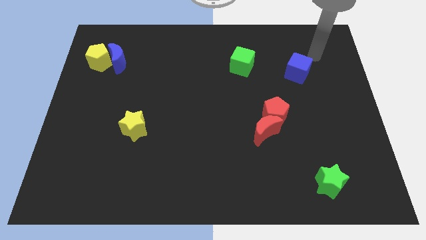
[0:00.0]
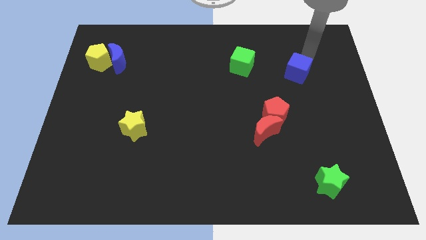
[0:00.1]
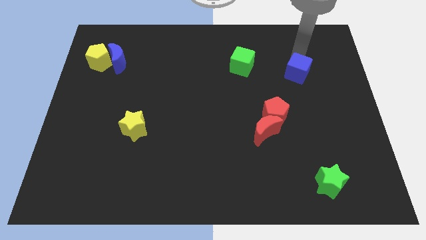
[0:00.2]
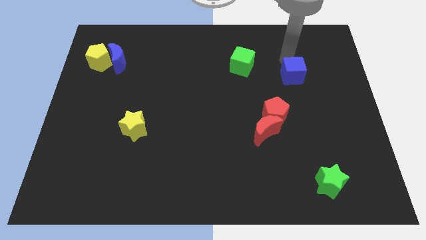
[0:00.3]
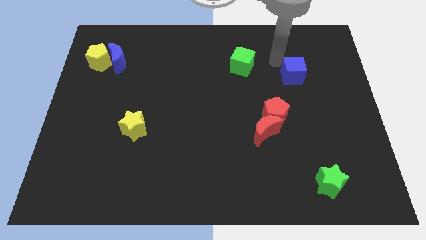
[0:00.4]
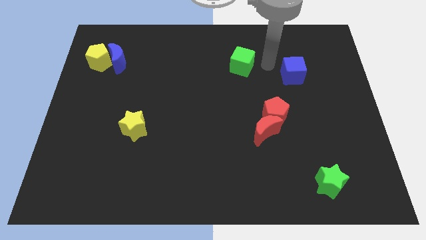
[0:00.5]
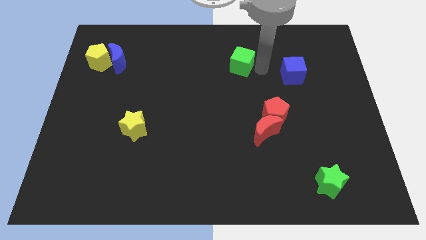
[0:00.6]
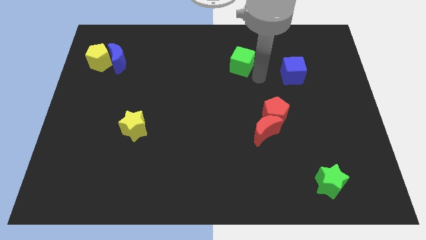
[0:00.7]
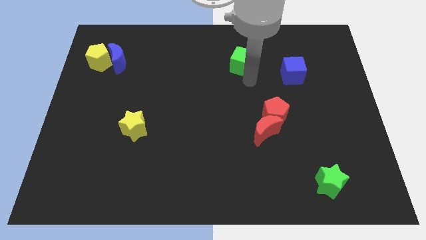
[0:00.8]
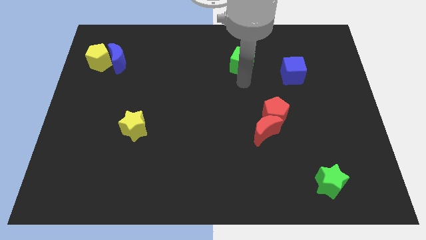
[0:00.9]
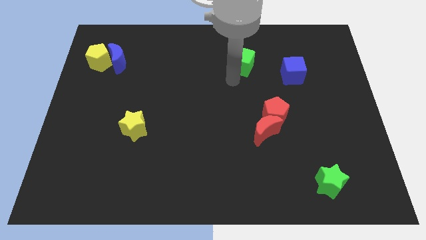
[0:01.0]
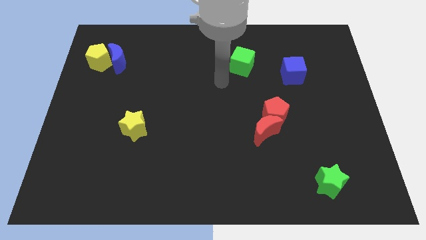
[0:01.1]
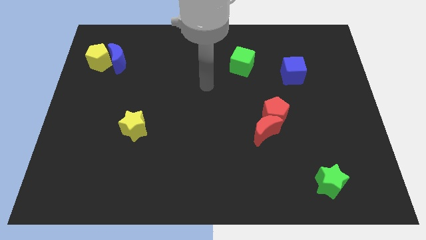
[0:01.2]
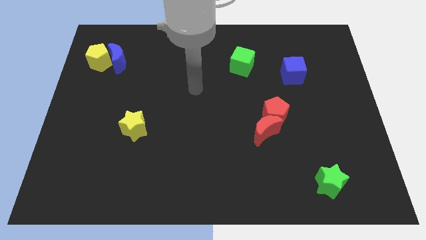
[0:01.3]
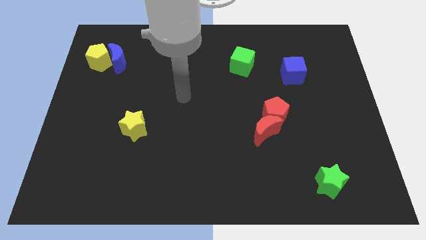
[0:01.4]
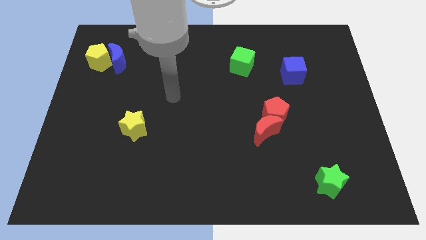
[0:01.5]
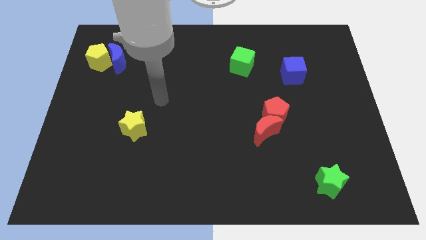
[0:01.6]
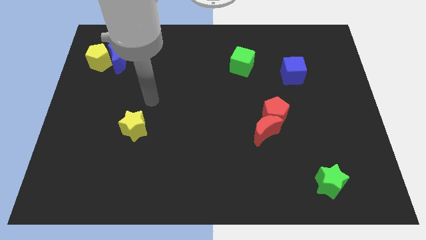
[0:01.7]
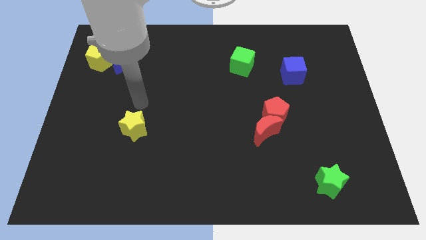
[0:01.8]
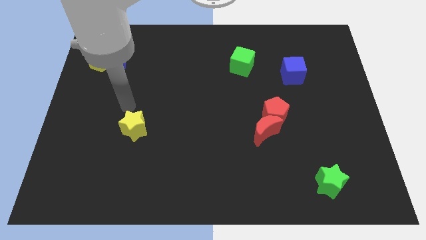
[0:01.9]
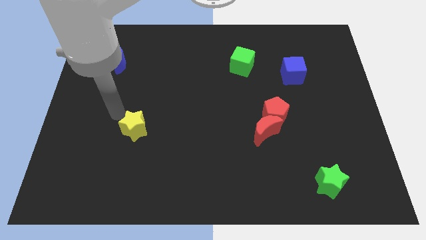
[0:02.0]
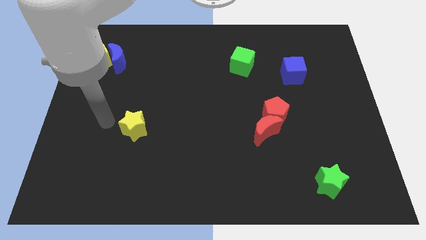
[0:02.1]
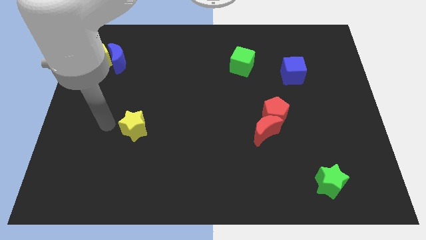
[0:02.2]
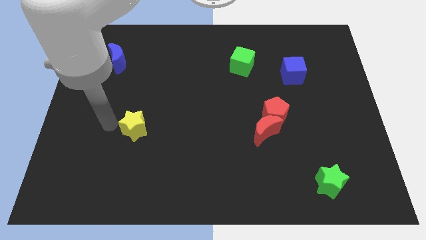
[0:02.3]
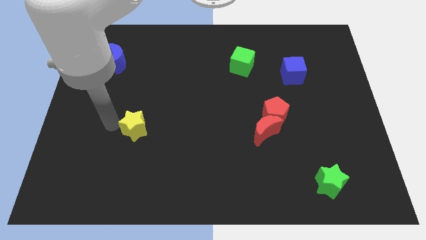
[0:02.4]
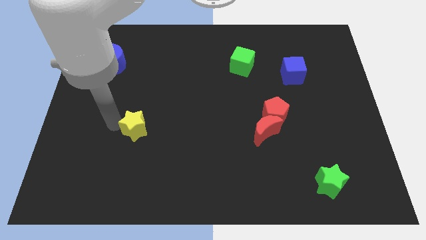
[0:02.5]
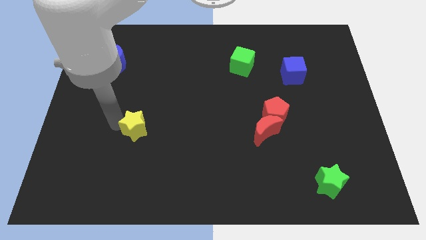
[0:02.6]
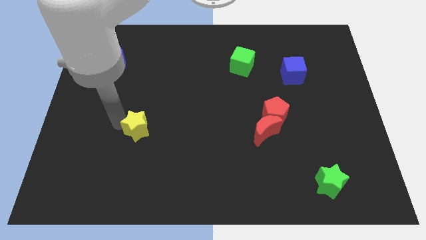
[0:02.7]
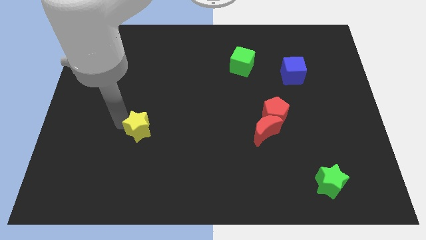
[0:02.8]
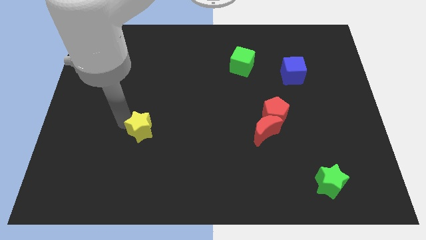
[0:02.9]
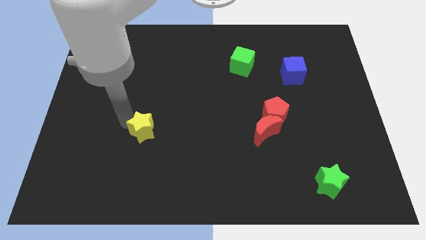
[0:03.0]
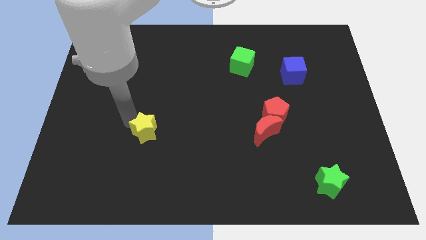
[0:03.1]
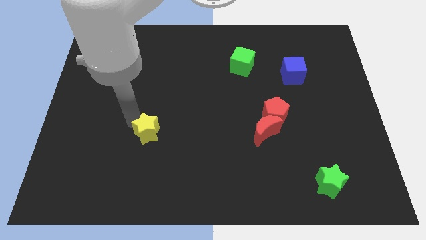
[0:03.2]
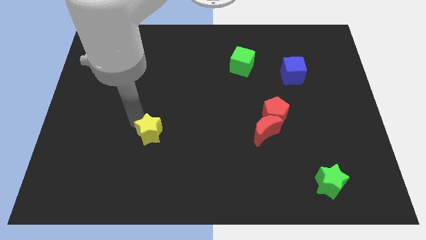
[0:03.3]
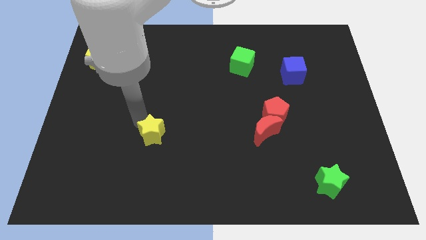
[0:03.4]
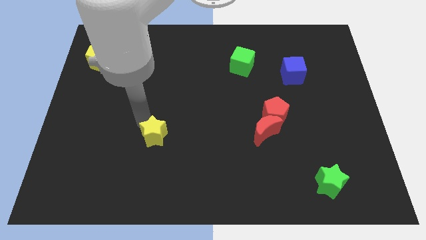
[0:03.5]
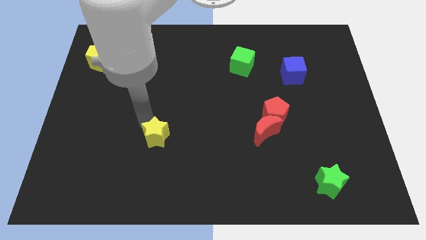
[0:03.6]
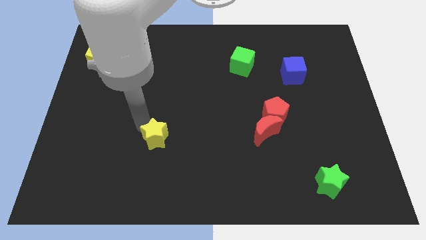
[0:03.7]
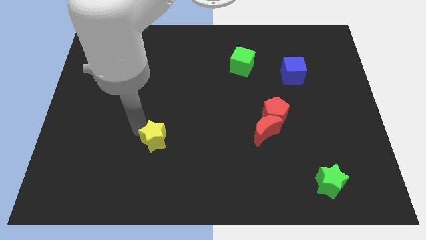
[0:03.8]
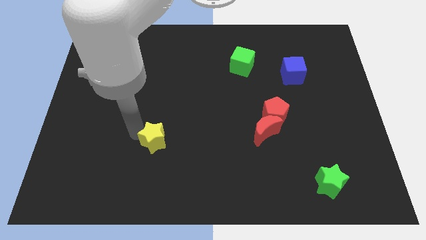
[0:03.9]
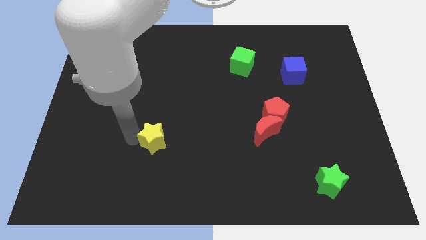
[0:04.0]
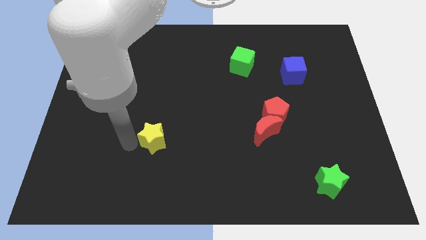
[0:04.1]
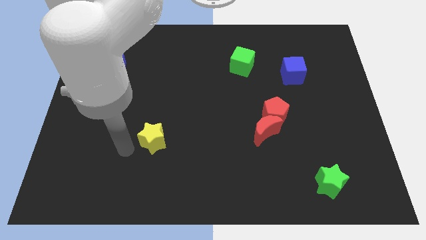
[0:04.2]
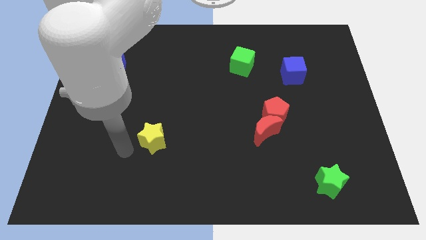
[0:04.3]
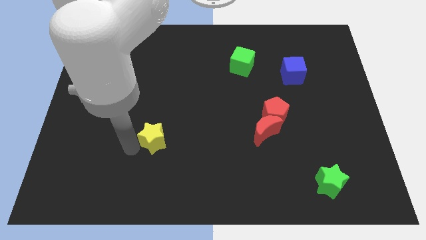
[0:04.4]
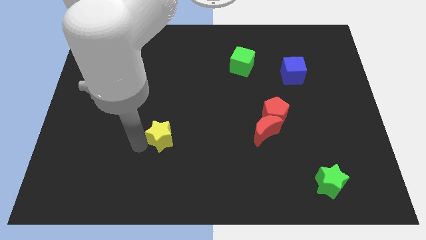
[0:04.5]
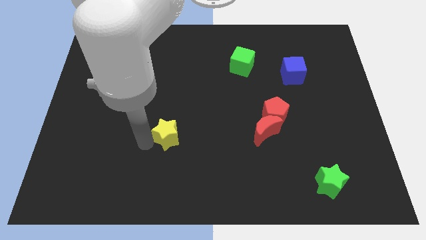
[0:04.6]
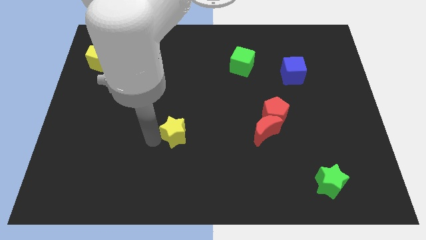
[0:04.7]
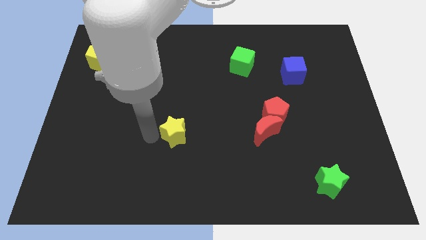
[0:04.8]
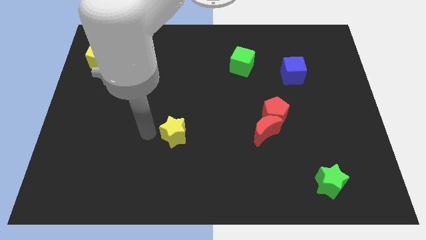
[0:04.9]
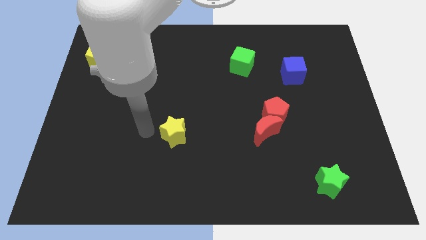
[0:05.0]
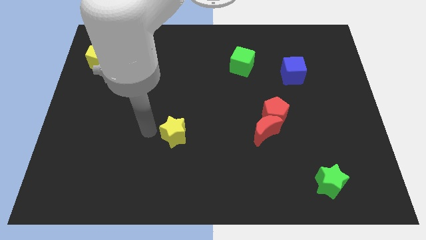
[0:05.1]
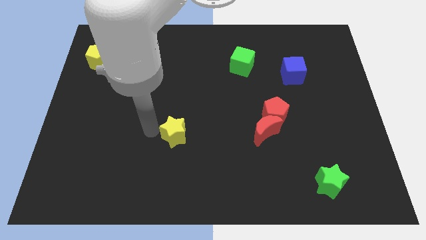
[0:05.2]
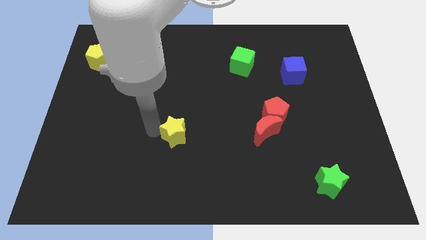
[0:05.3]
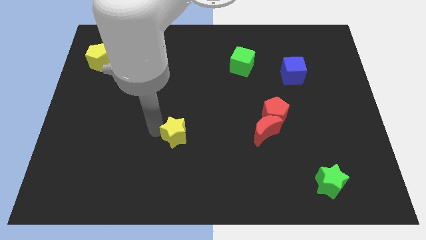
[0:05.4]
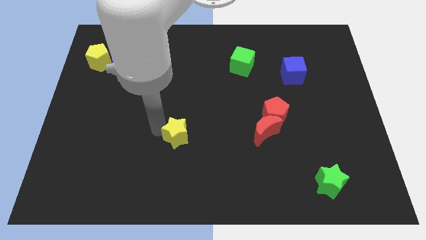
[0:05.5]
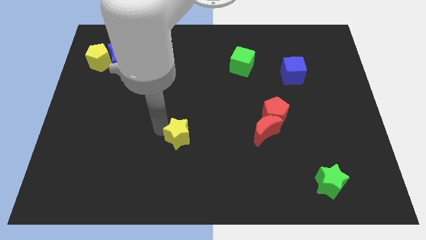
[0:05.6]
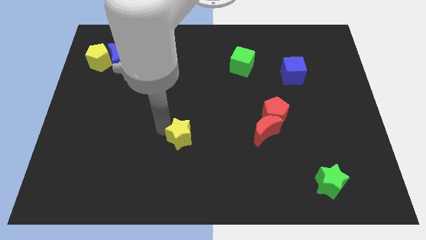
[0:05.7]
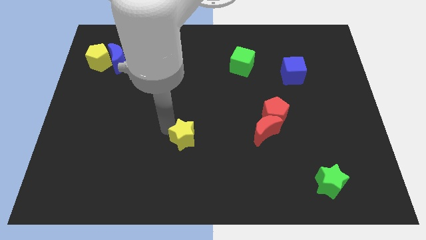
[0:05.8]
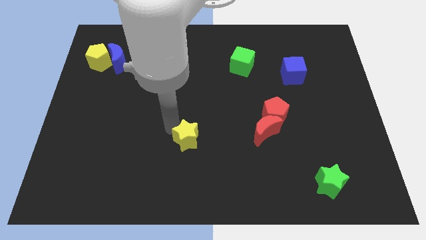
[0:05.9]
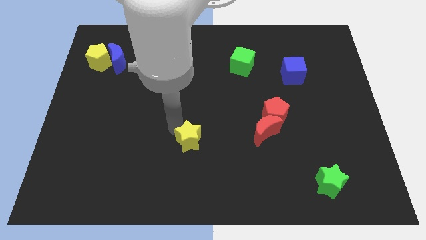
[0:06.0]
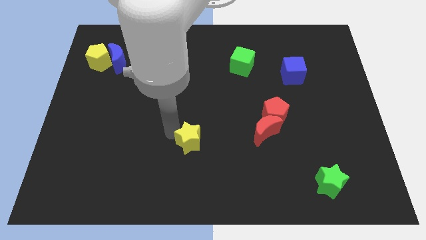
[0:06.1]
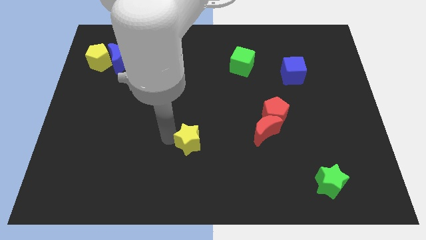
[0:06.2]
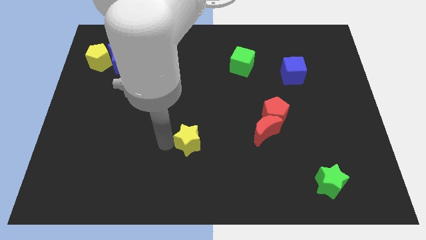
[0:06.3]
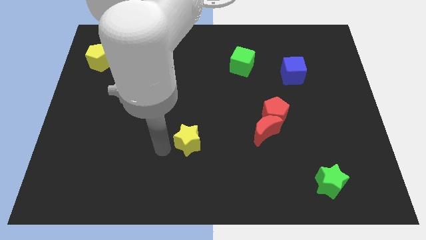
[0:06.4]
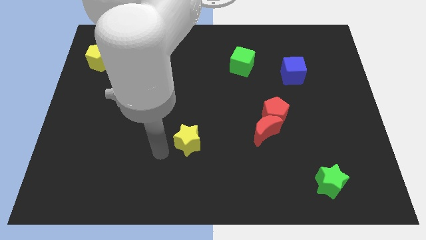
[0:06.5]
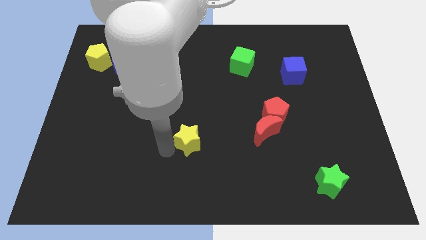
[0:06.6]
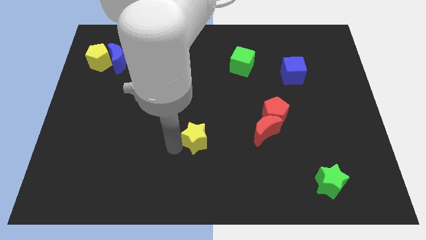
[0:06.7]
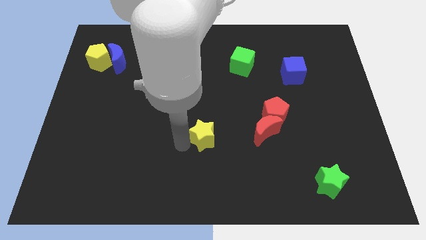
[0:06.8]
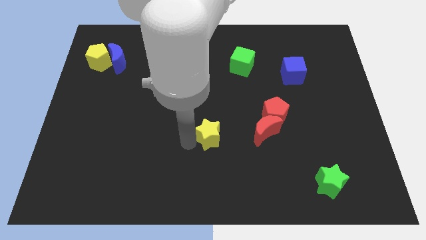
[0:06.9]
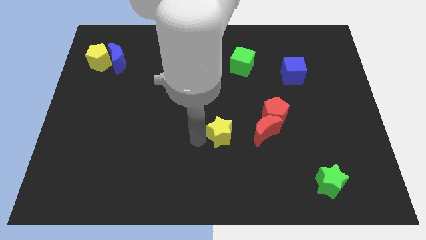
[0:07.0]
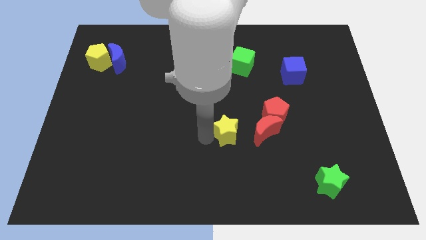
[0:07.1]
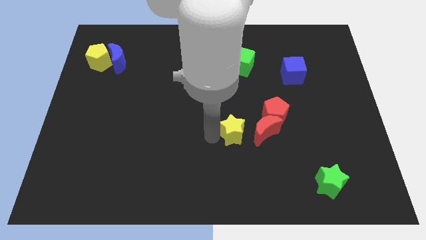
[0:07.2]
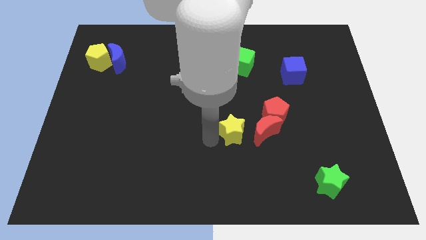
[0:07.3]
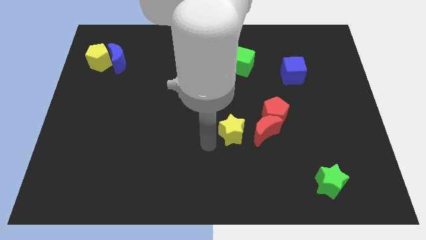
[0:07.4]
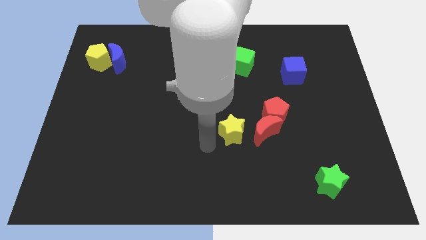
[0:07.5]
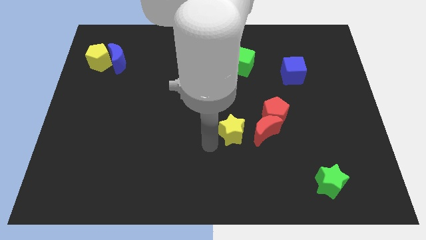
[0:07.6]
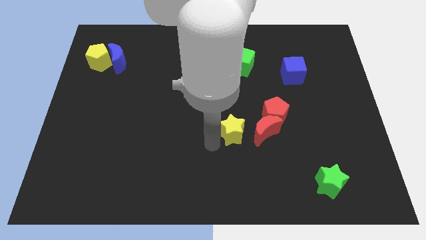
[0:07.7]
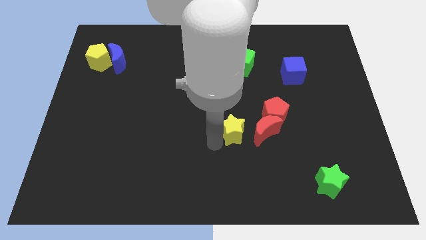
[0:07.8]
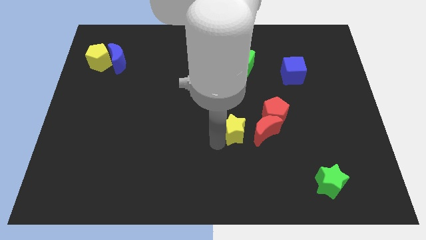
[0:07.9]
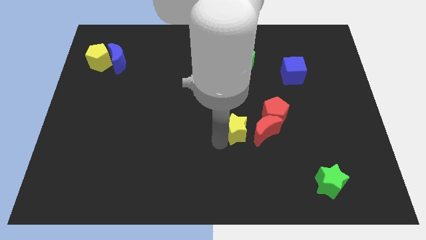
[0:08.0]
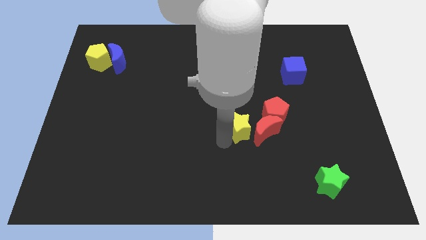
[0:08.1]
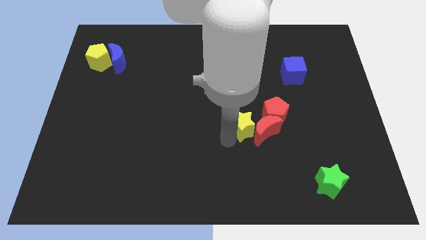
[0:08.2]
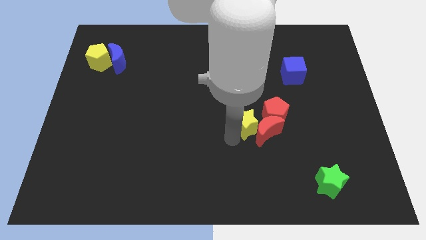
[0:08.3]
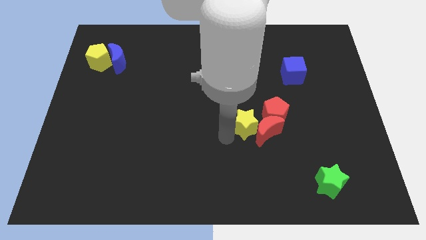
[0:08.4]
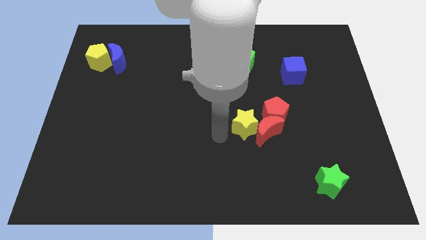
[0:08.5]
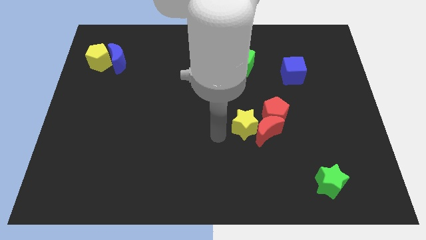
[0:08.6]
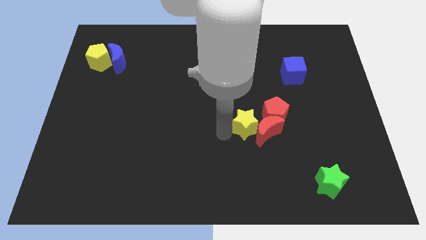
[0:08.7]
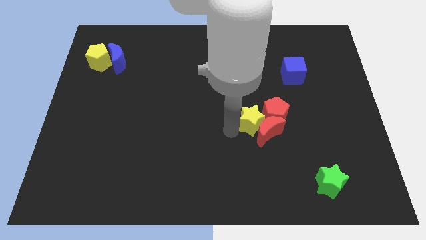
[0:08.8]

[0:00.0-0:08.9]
push the yellow star to the red pentagon
